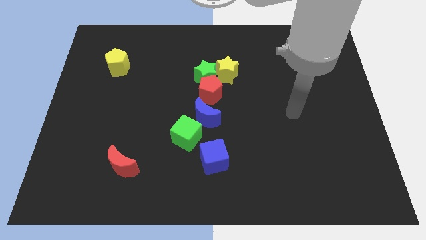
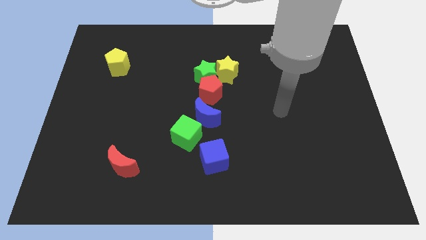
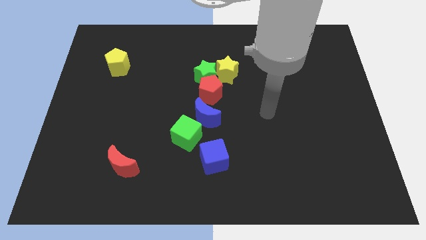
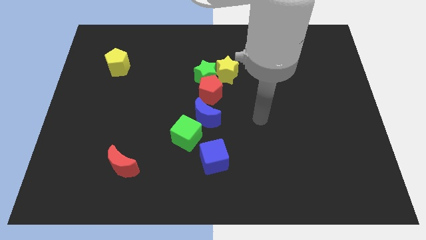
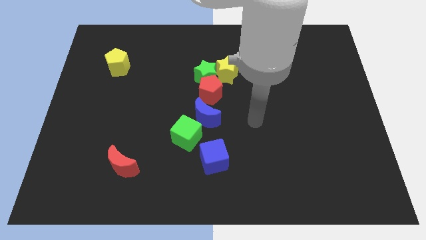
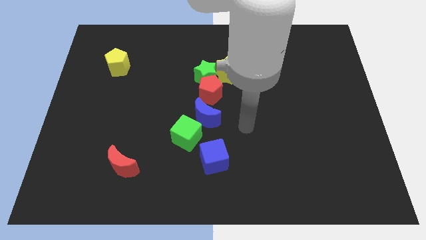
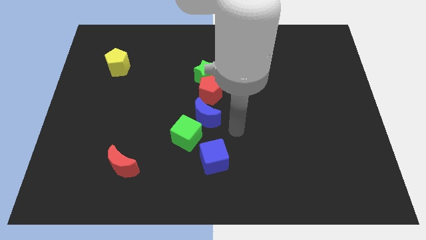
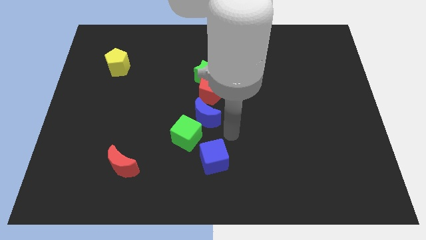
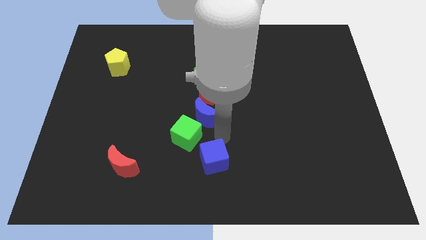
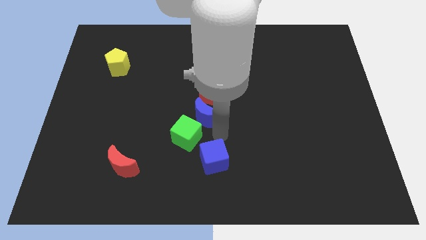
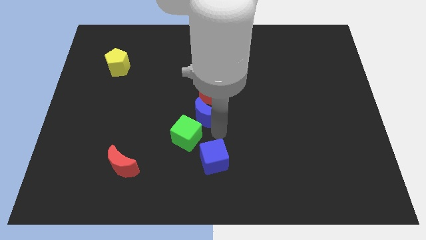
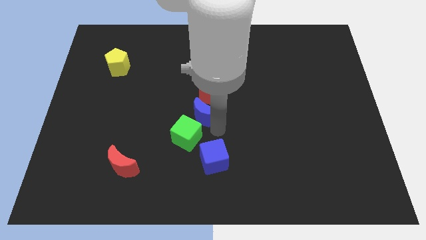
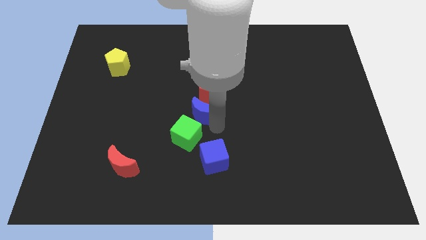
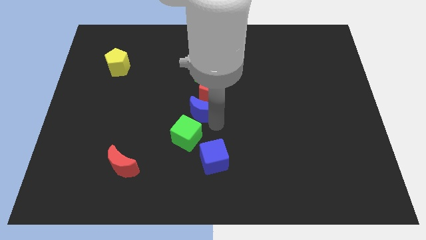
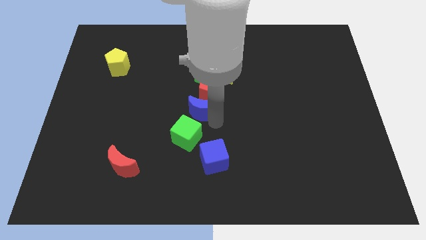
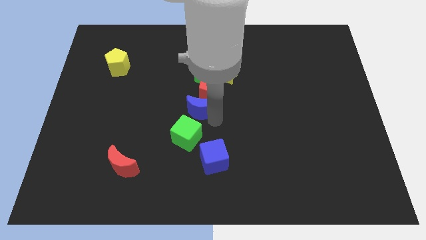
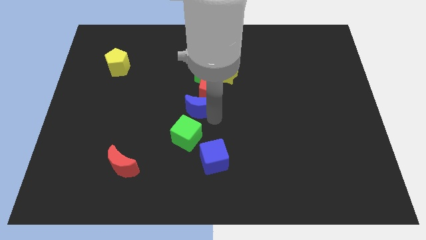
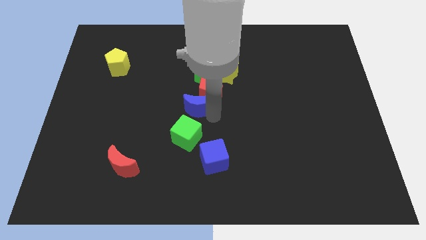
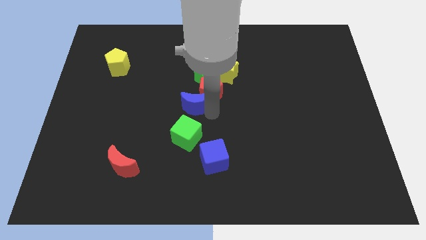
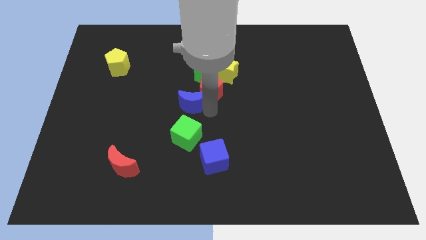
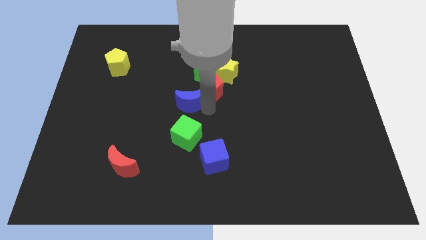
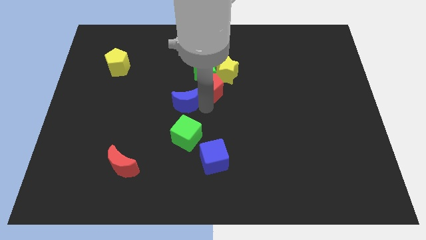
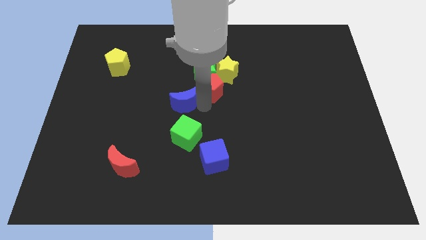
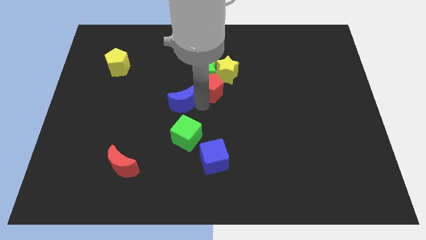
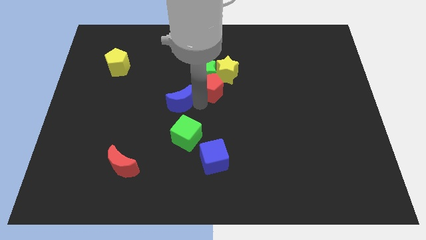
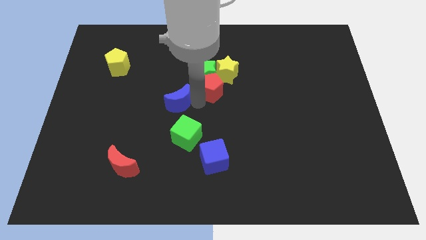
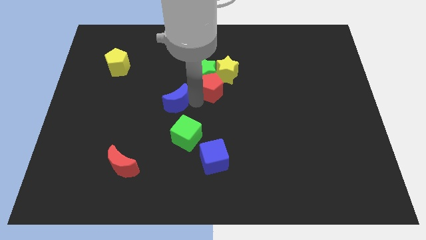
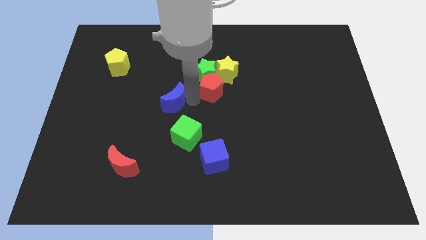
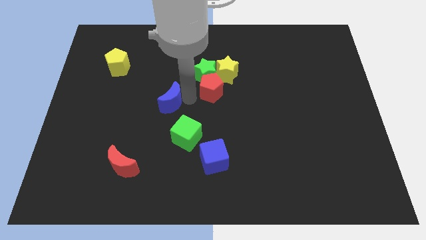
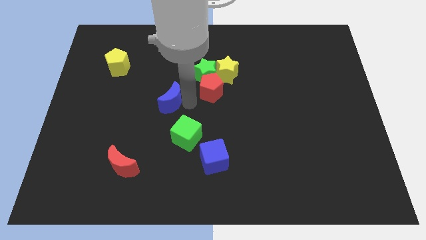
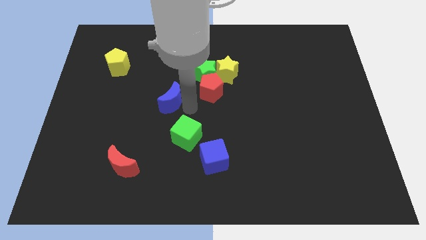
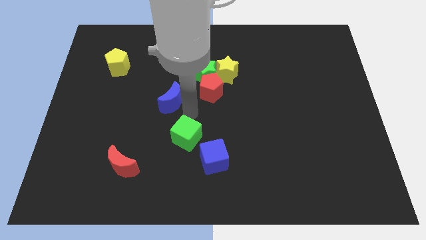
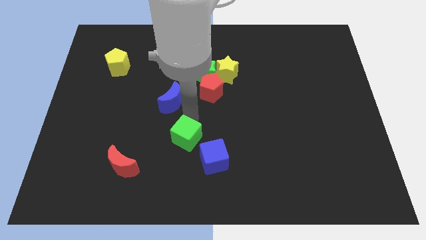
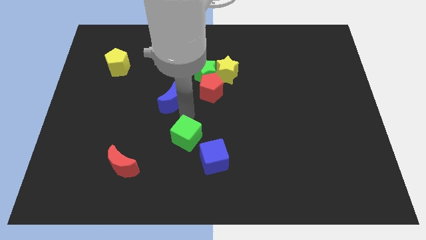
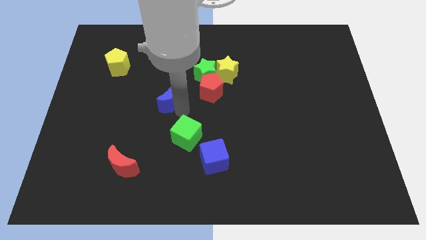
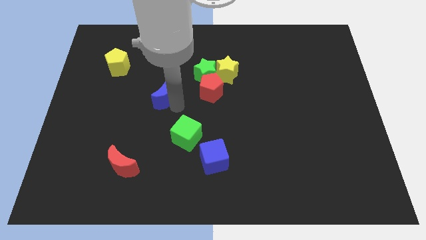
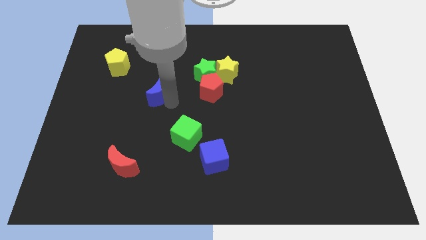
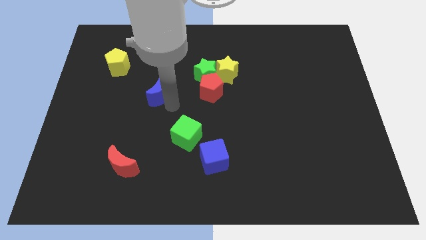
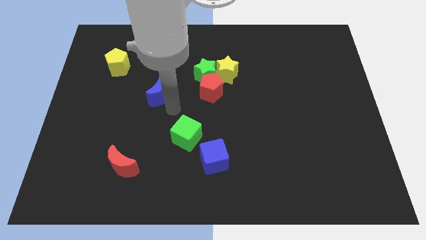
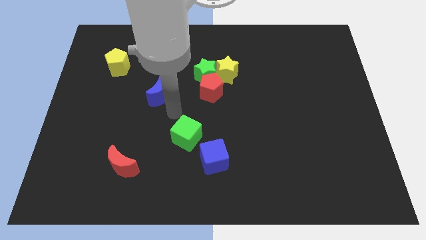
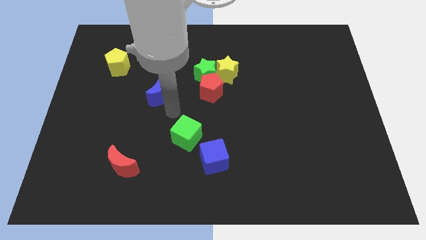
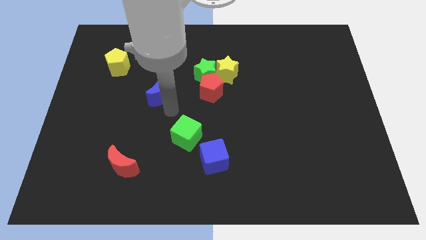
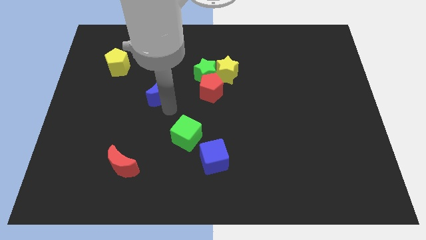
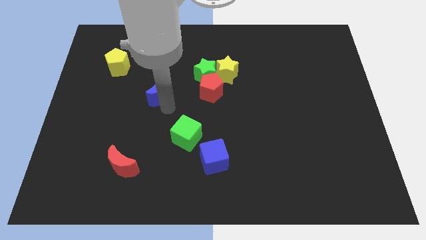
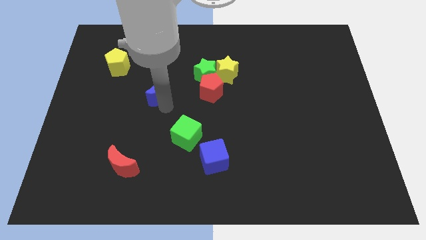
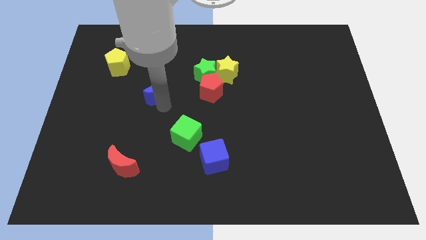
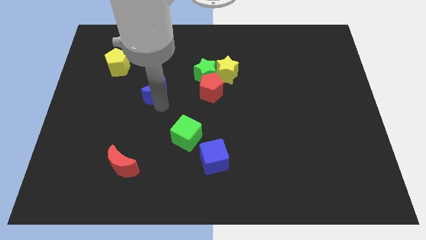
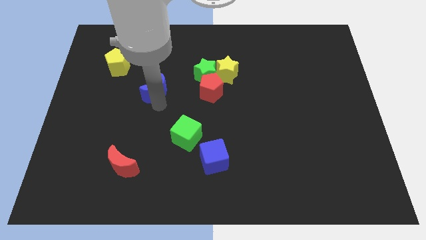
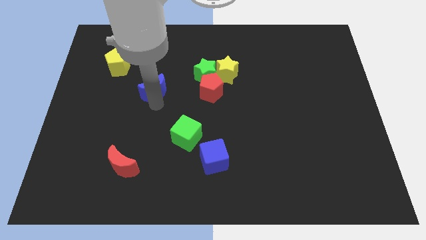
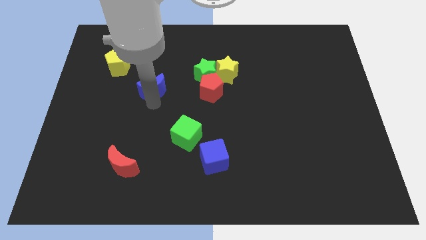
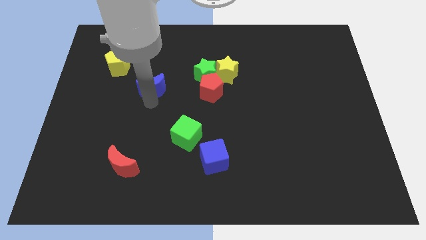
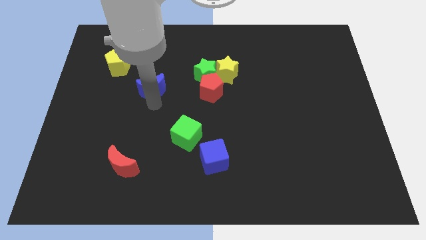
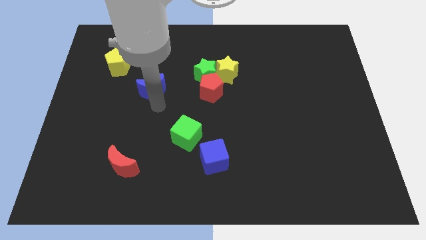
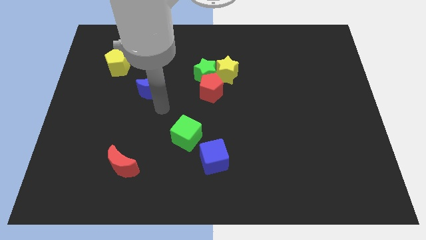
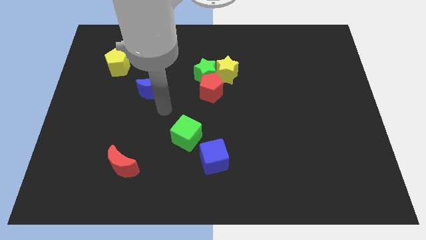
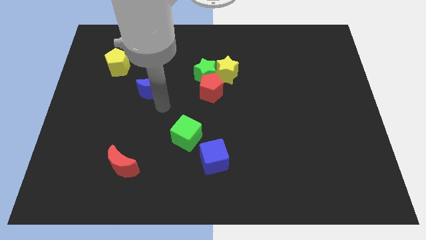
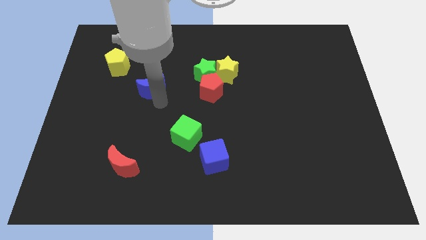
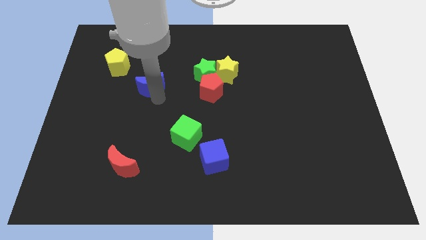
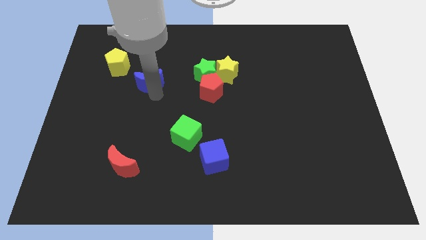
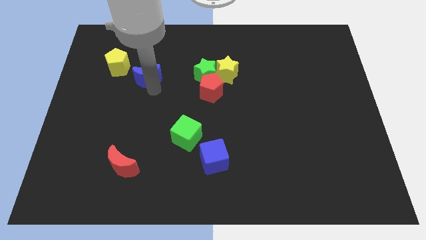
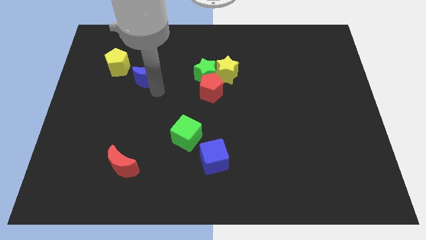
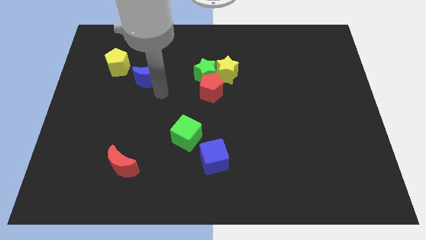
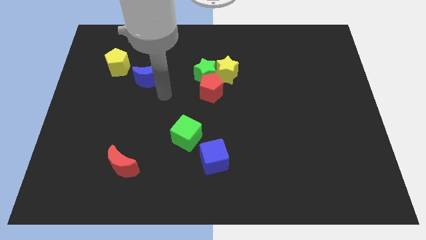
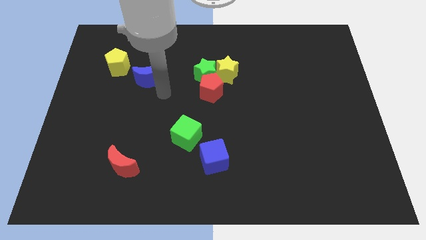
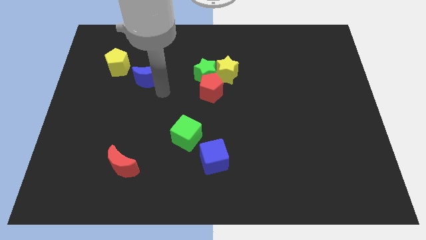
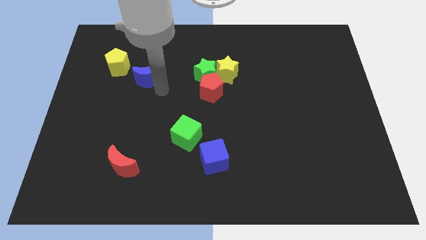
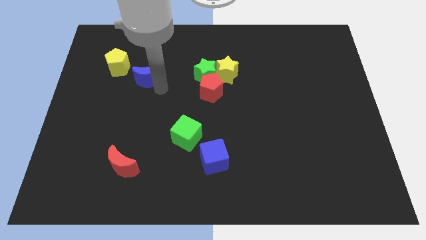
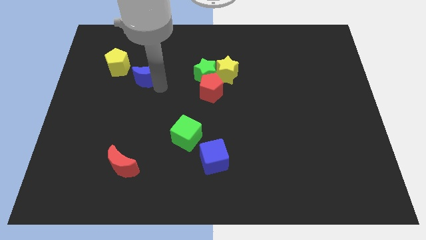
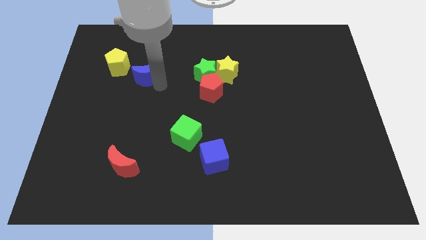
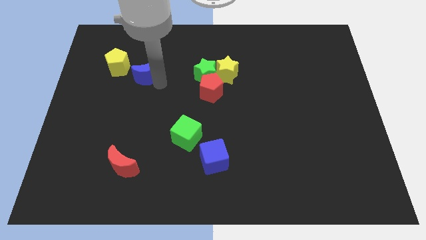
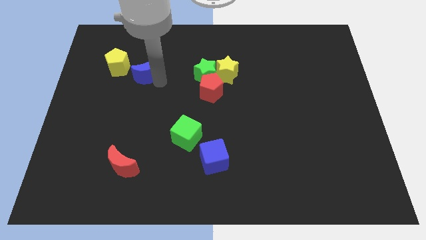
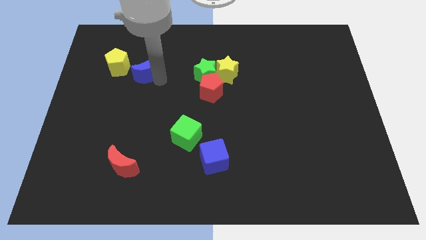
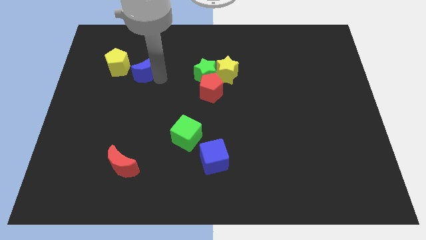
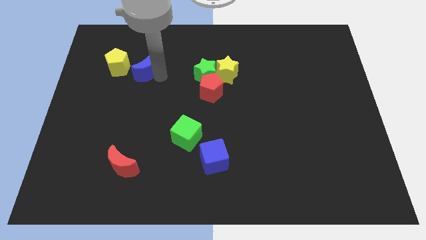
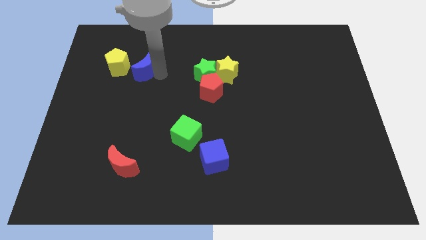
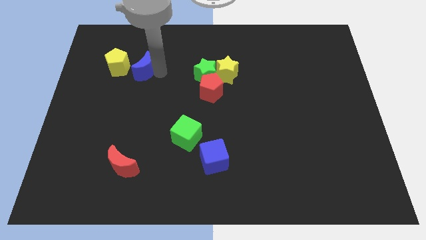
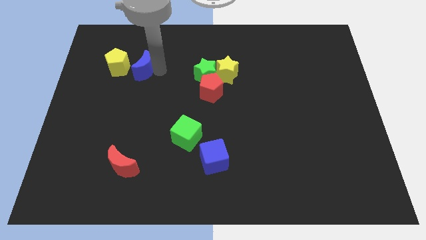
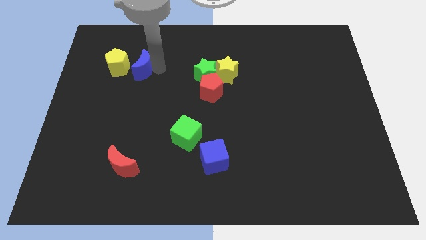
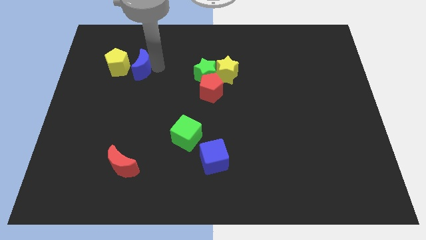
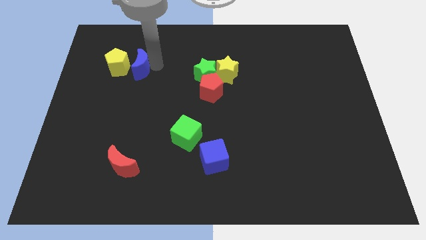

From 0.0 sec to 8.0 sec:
put the blue moon close to the yellow pentagon
